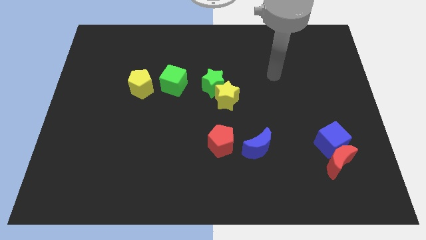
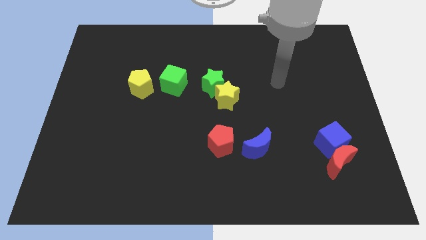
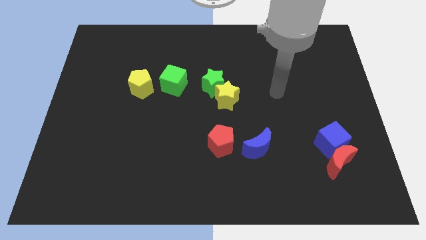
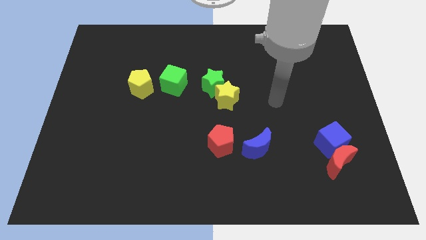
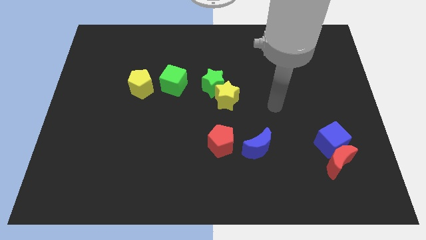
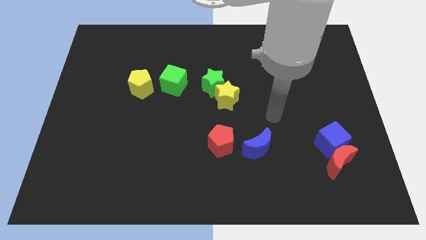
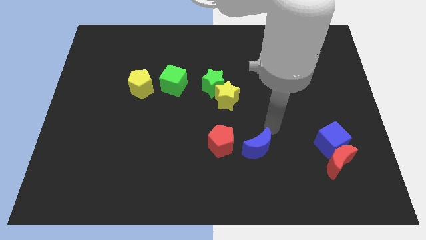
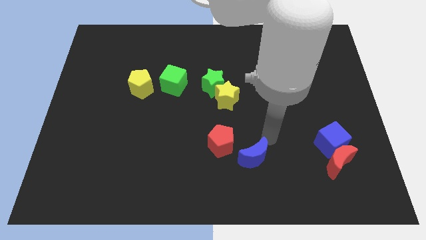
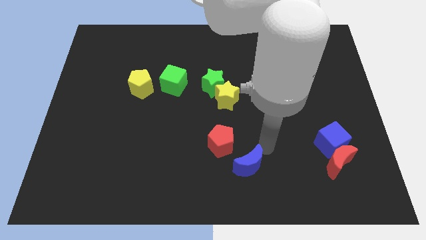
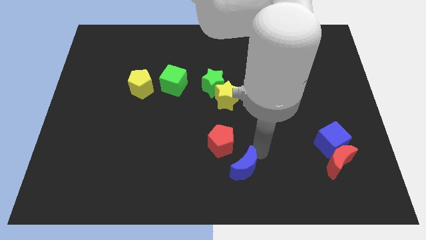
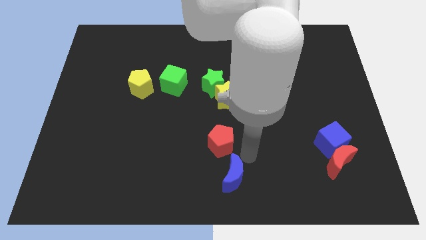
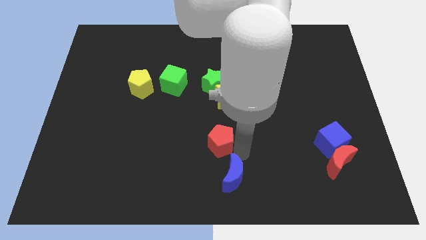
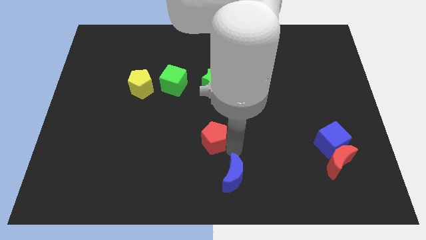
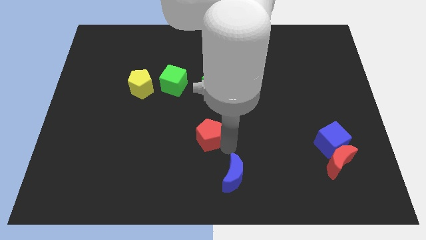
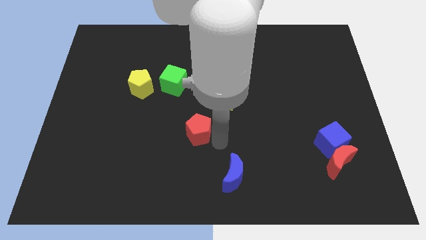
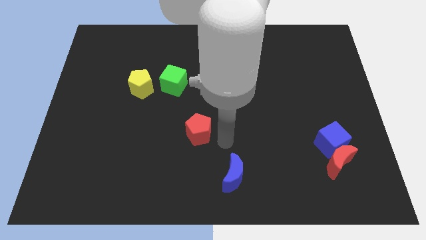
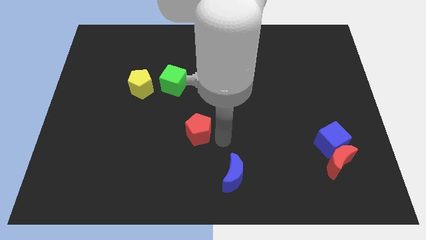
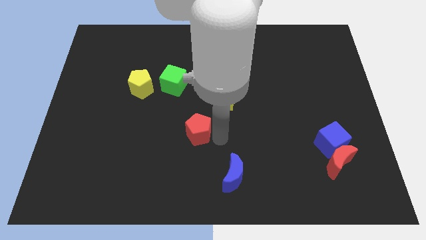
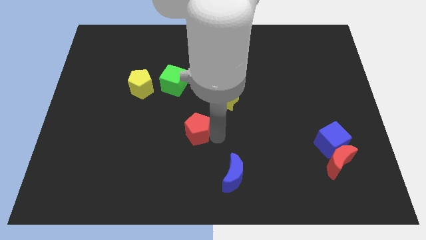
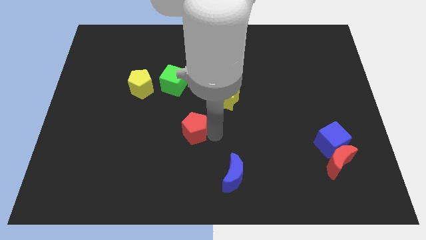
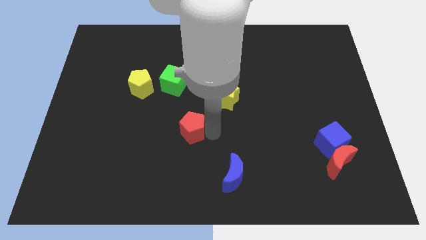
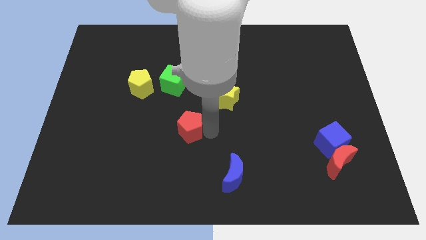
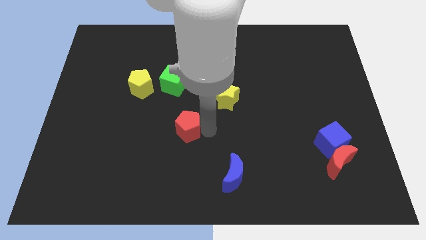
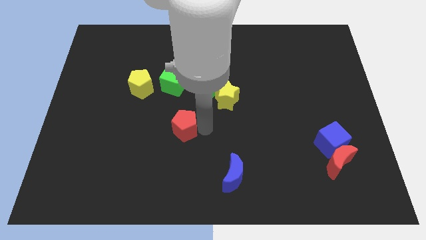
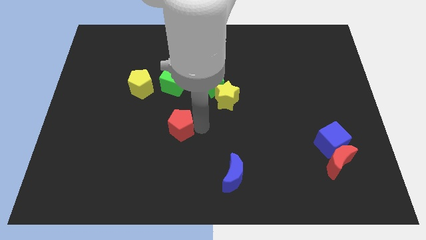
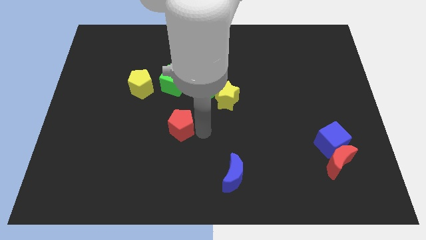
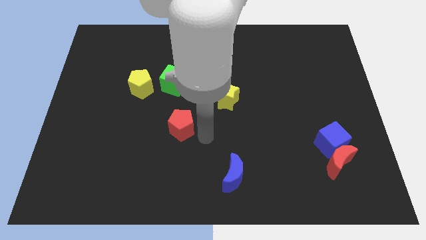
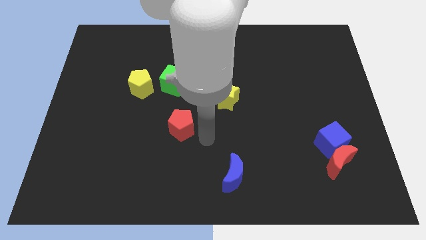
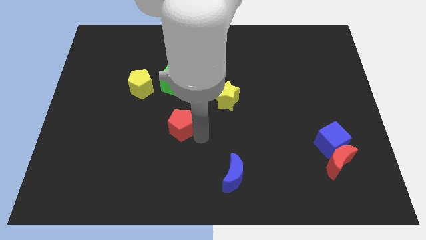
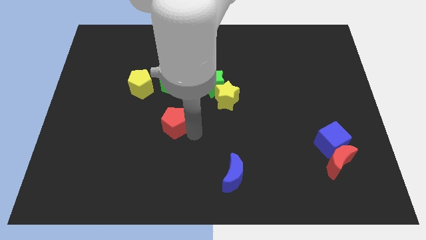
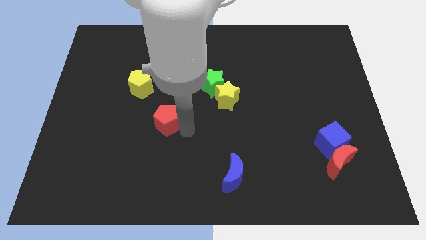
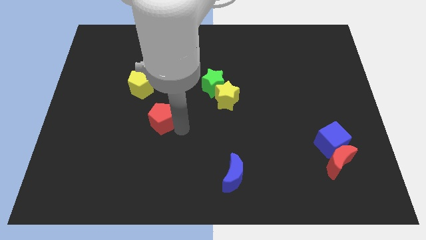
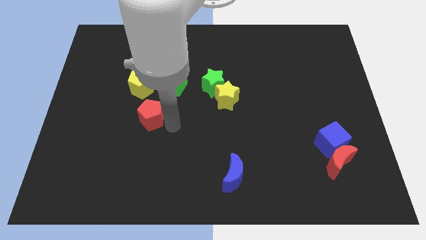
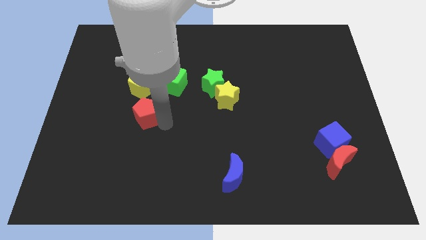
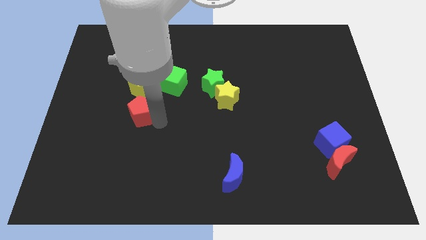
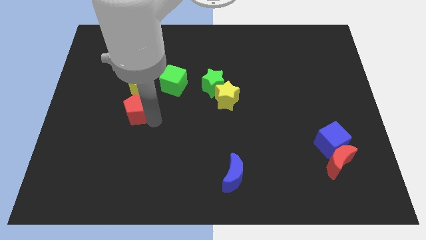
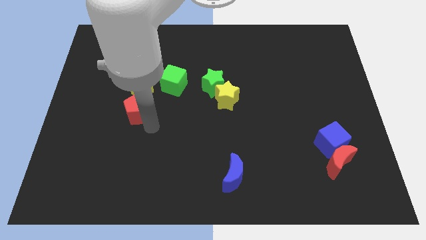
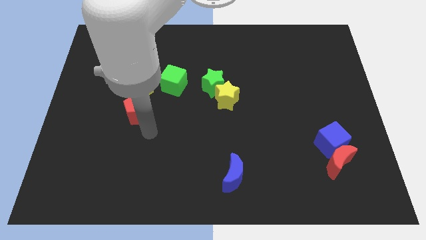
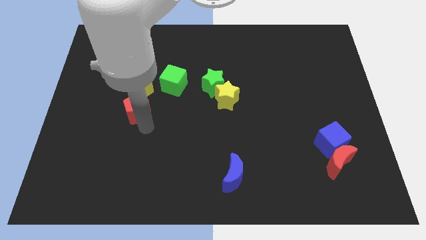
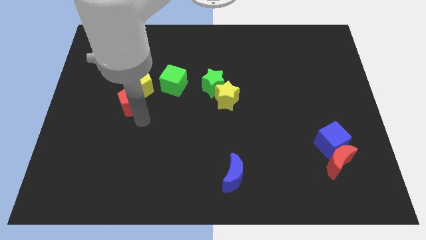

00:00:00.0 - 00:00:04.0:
slide the red pentagon upwards and then to the left

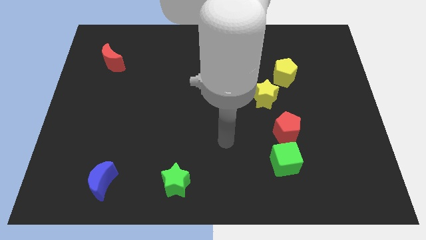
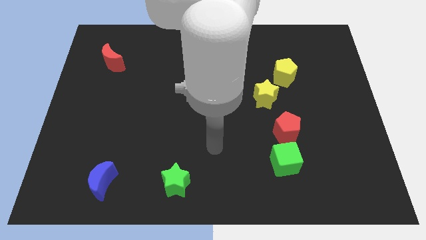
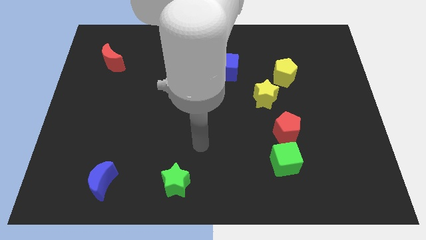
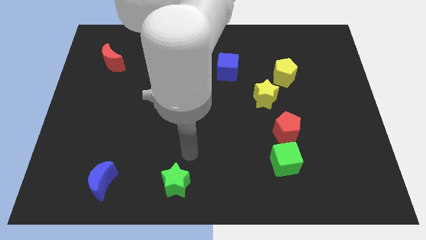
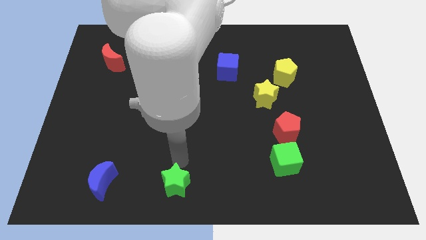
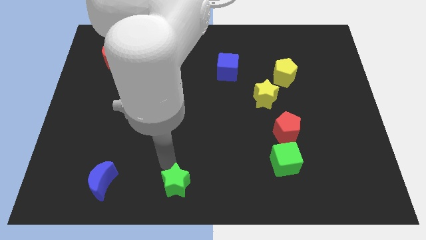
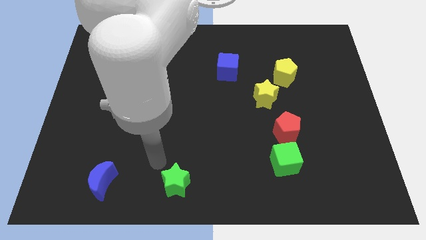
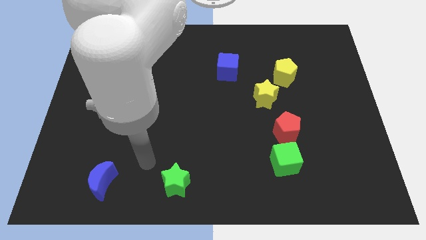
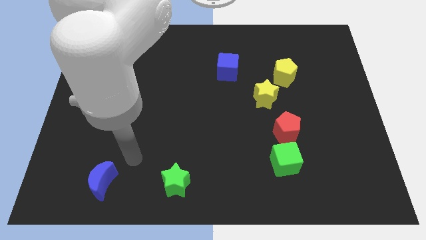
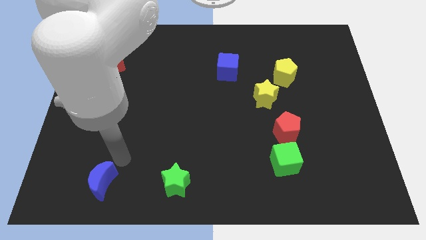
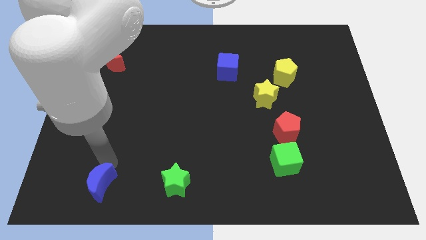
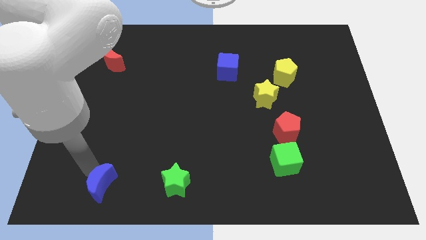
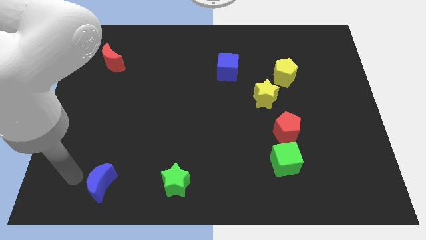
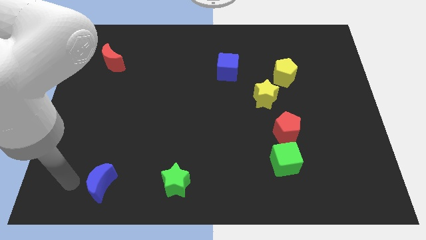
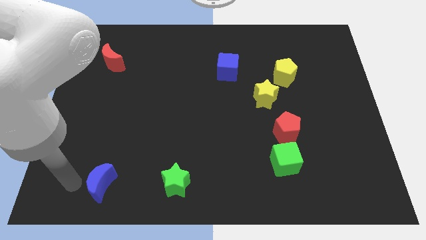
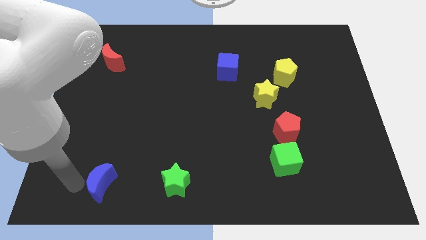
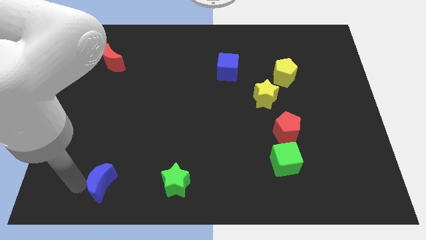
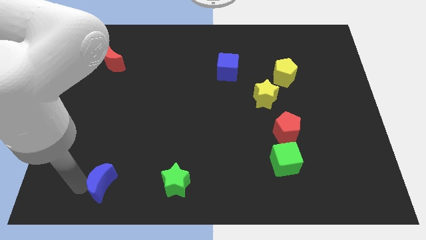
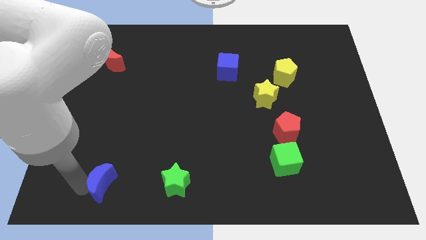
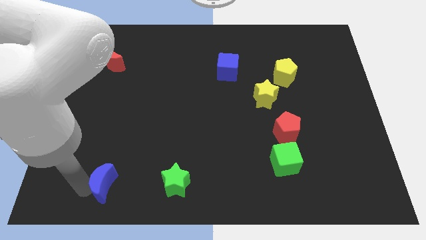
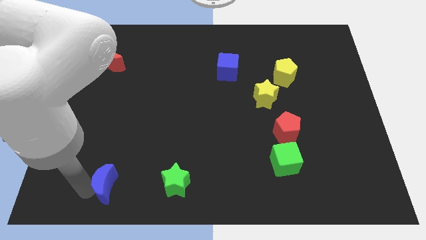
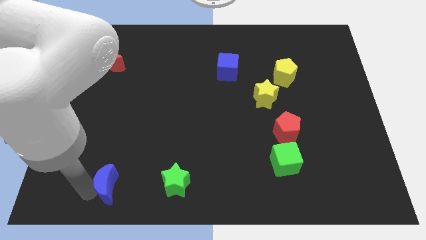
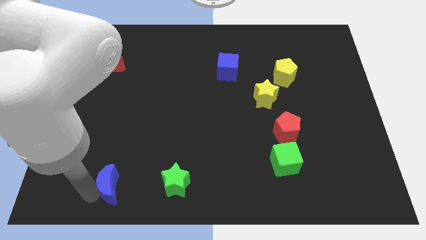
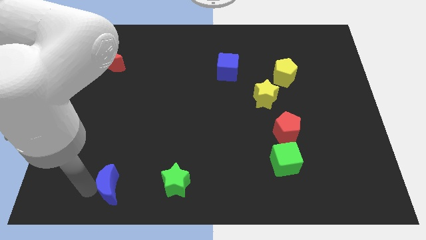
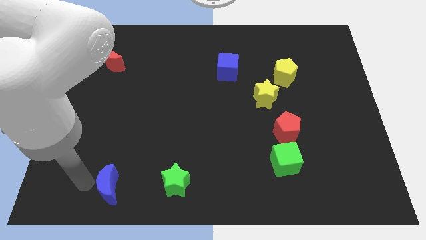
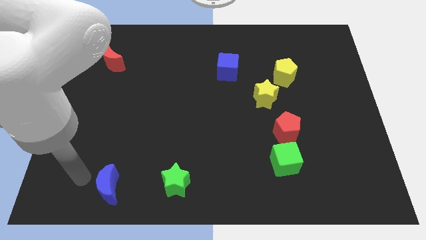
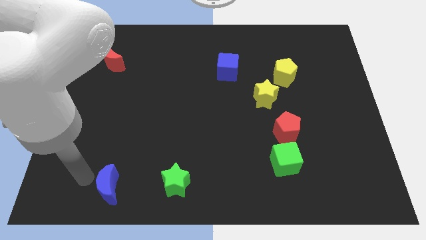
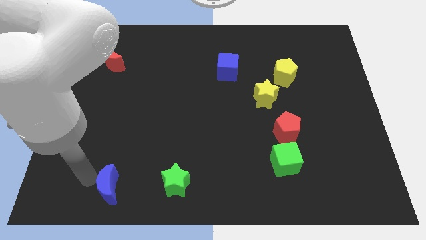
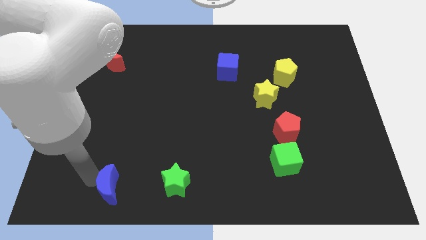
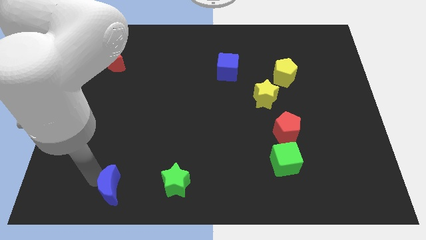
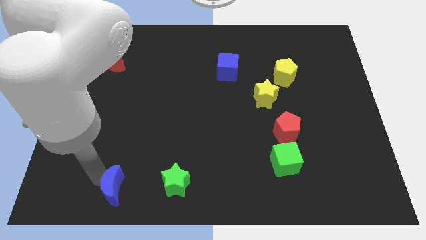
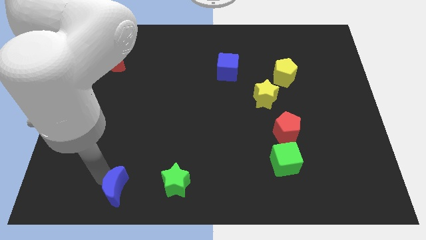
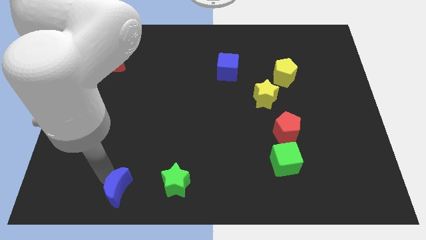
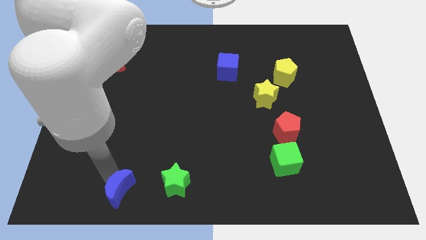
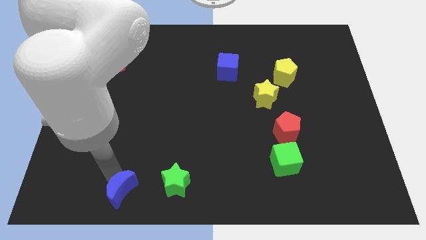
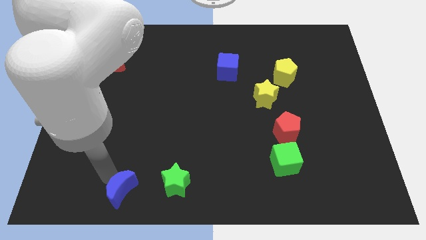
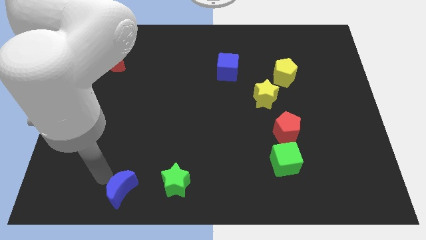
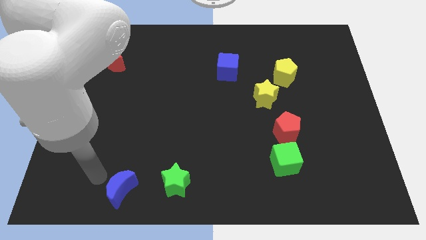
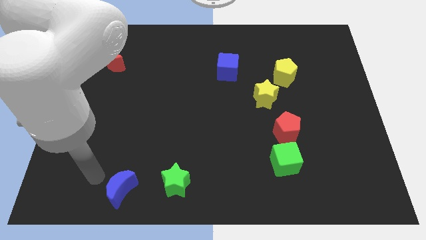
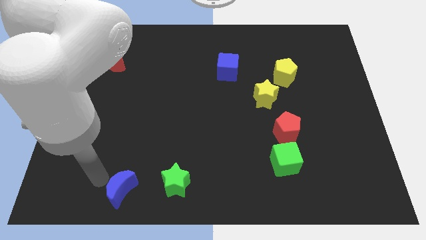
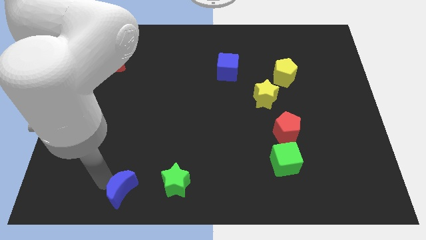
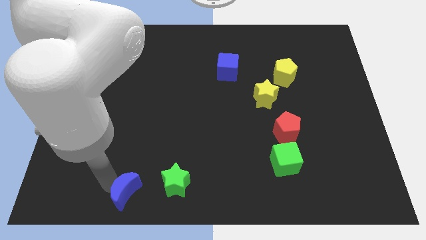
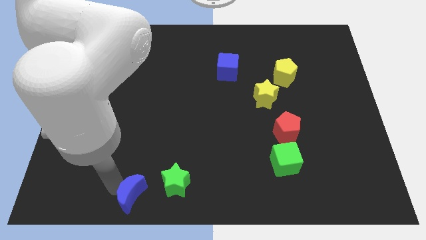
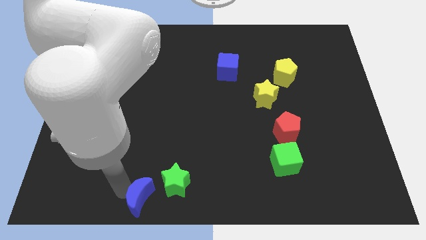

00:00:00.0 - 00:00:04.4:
push the blue moon to the right slightly
